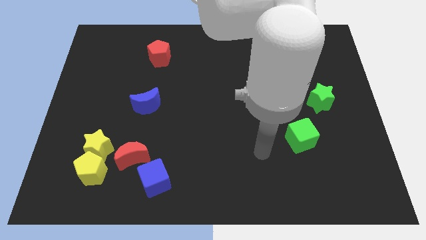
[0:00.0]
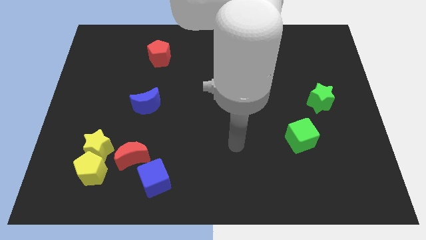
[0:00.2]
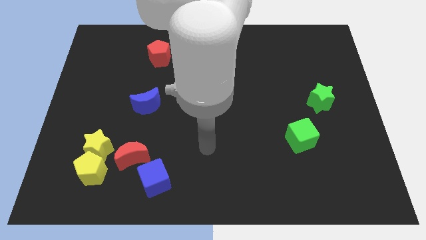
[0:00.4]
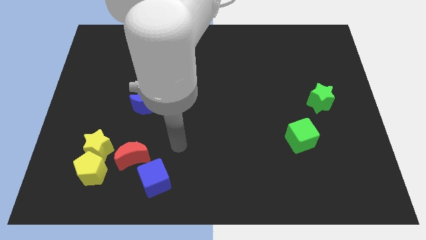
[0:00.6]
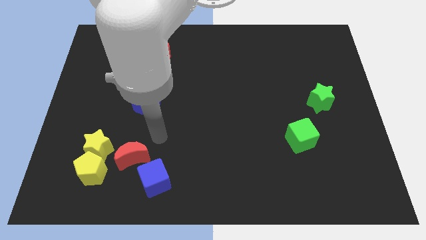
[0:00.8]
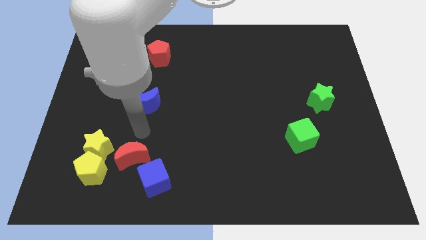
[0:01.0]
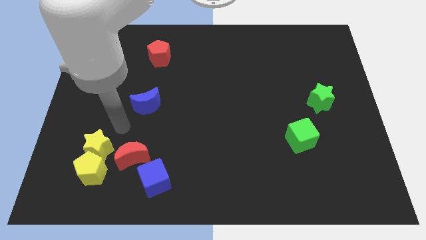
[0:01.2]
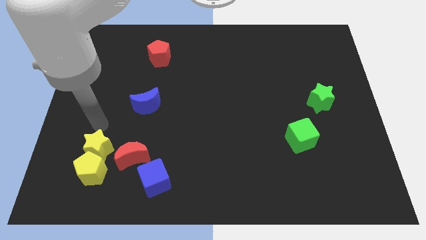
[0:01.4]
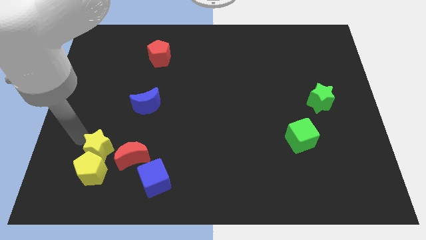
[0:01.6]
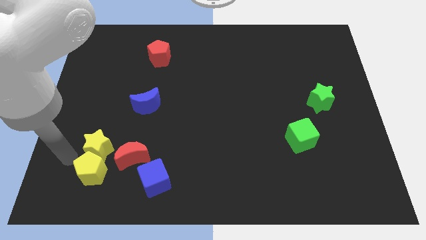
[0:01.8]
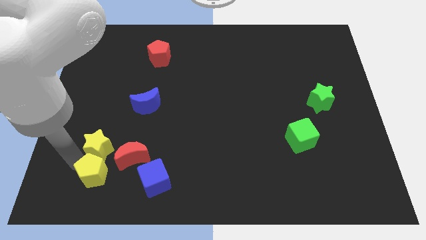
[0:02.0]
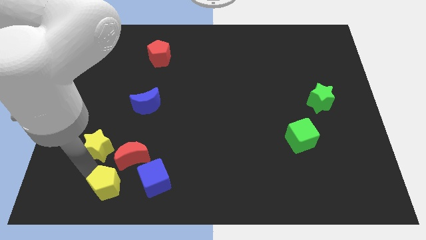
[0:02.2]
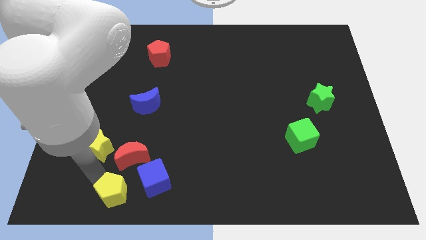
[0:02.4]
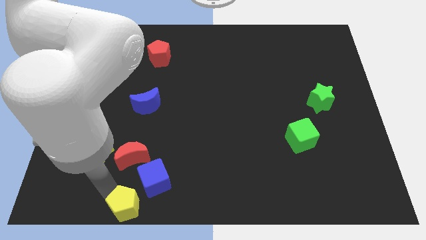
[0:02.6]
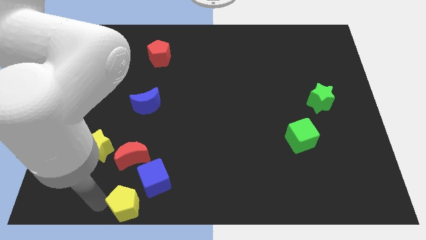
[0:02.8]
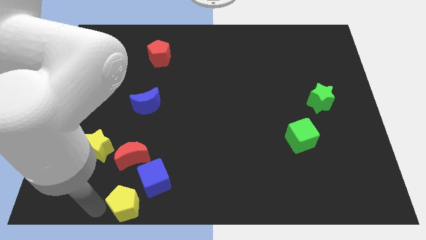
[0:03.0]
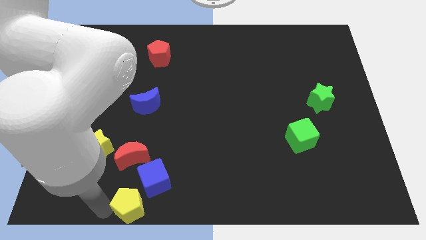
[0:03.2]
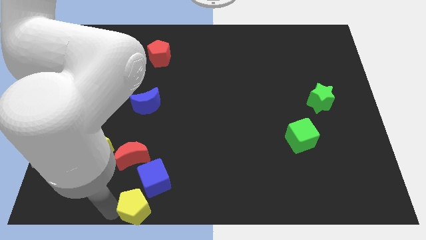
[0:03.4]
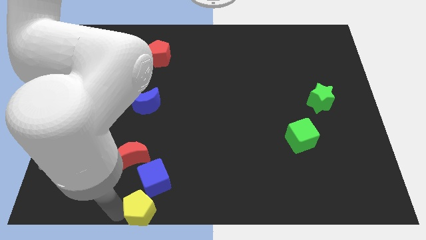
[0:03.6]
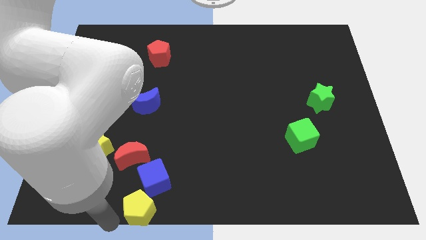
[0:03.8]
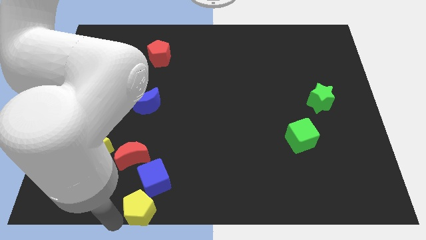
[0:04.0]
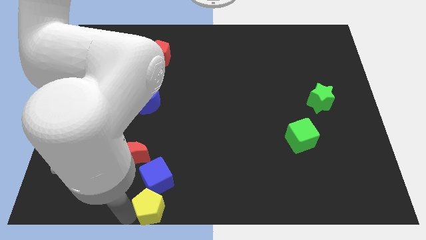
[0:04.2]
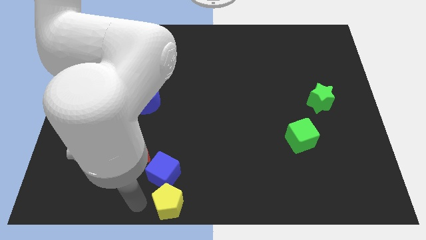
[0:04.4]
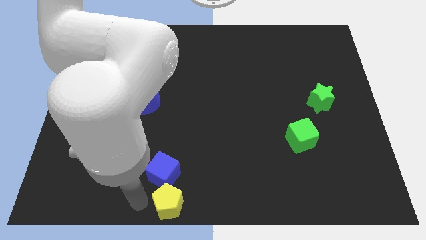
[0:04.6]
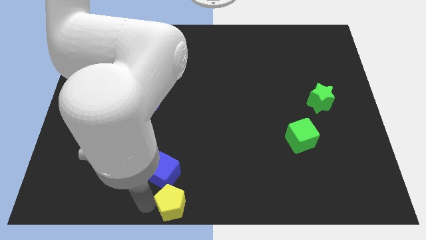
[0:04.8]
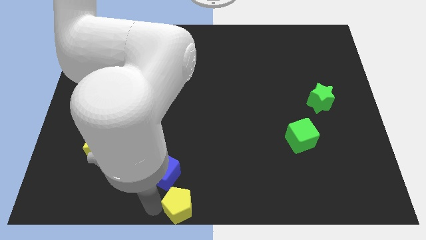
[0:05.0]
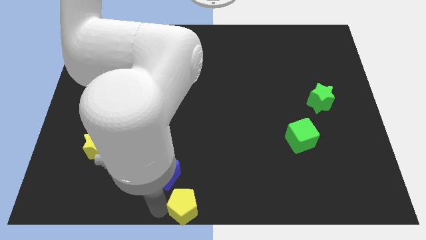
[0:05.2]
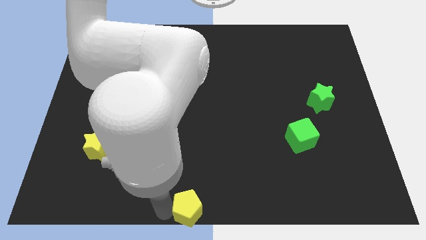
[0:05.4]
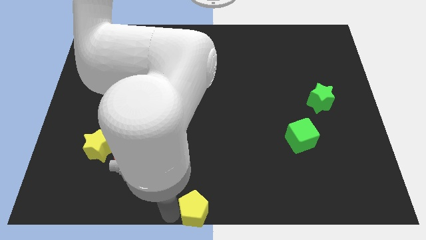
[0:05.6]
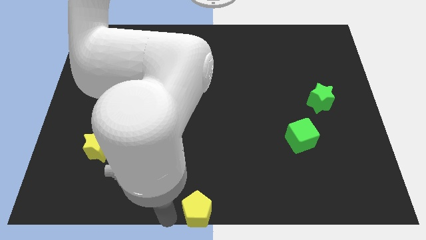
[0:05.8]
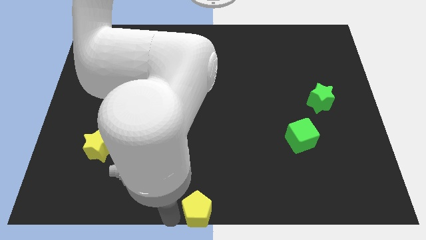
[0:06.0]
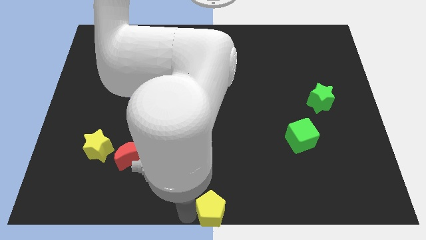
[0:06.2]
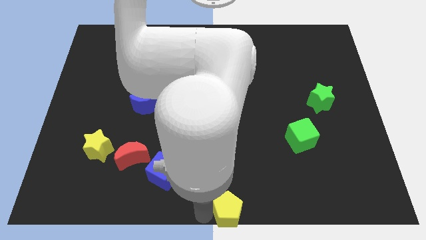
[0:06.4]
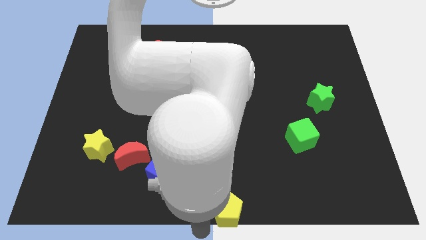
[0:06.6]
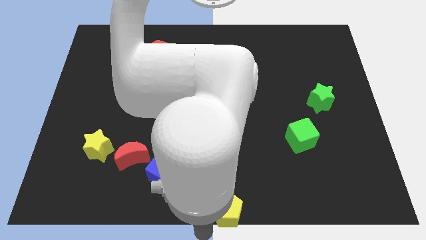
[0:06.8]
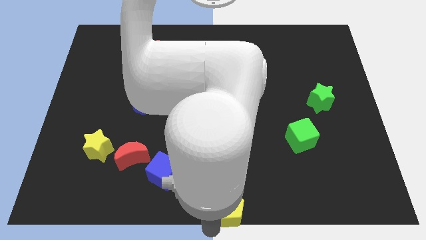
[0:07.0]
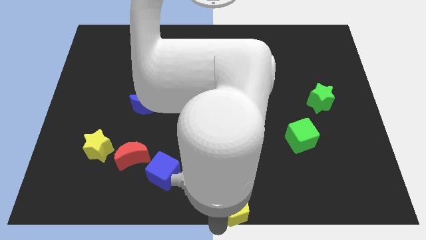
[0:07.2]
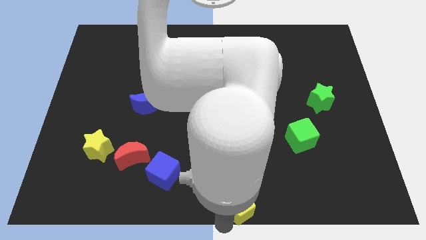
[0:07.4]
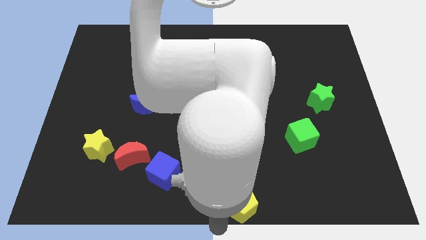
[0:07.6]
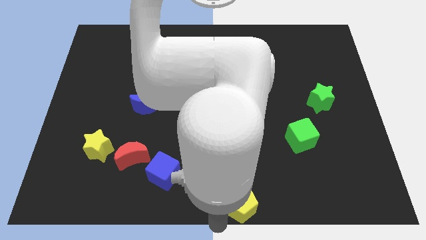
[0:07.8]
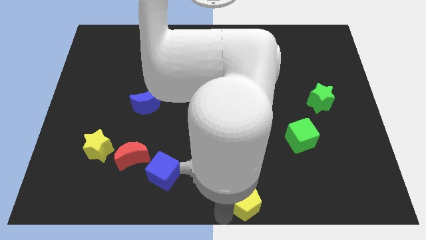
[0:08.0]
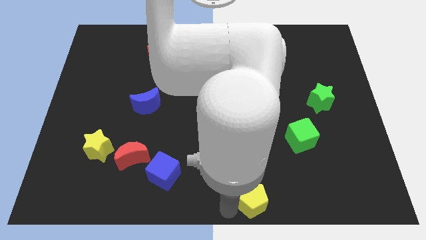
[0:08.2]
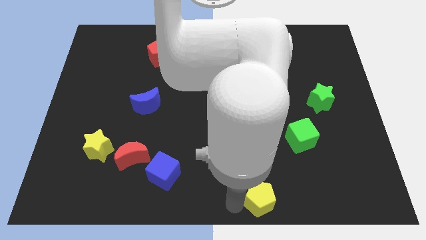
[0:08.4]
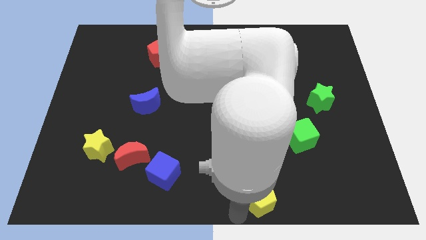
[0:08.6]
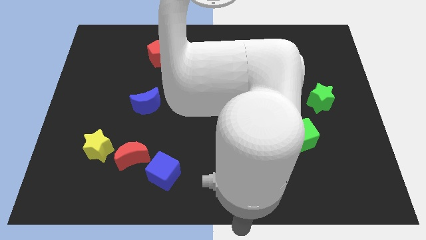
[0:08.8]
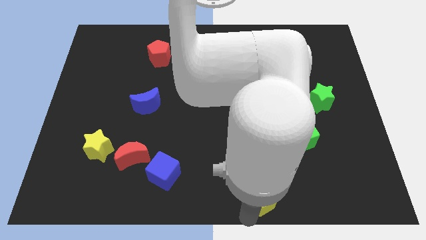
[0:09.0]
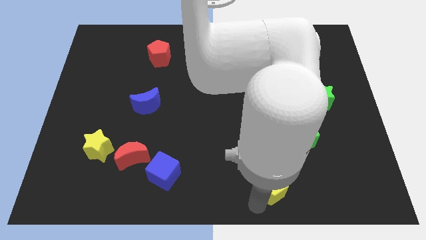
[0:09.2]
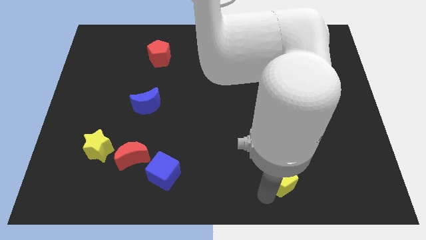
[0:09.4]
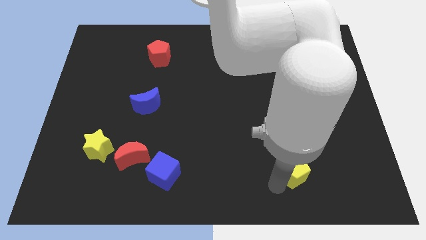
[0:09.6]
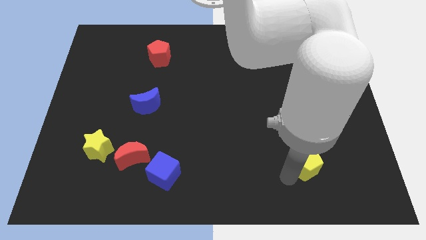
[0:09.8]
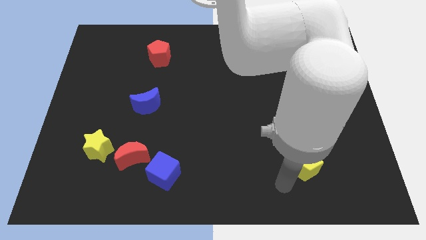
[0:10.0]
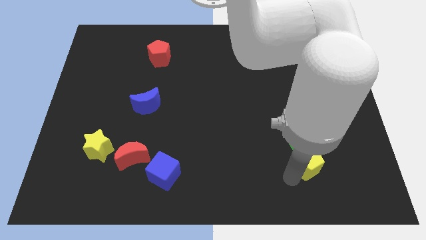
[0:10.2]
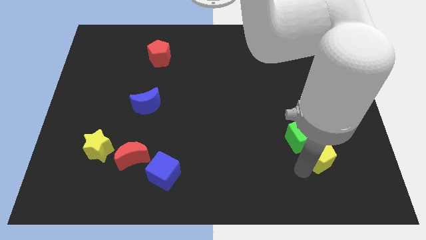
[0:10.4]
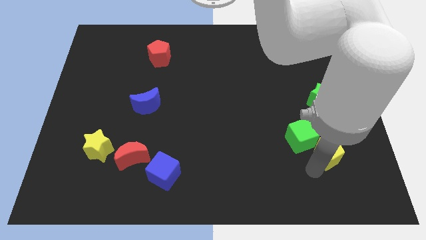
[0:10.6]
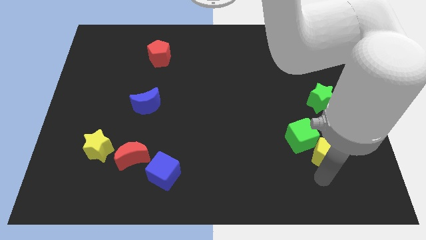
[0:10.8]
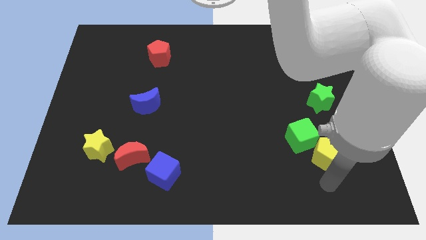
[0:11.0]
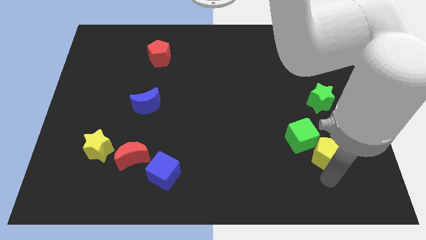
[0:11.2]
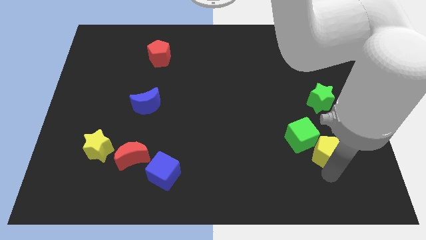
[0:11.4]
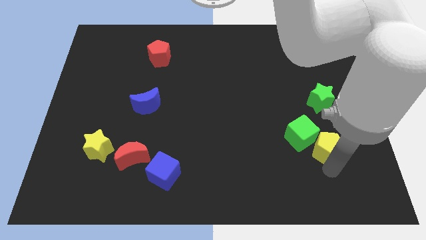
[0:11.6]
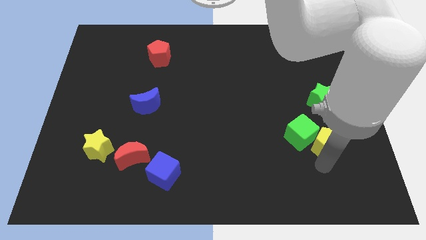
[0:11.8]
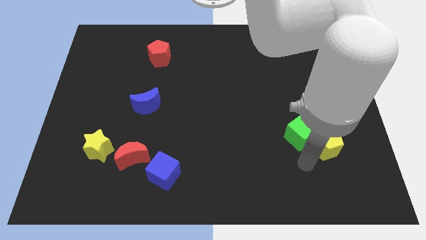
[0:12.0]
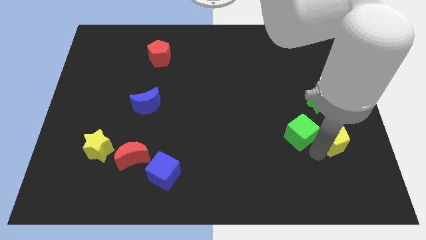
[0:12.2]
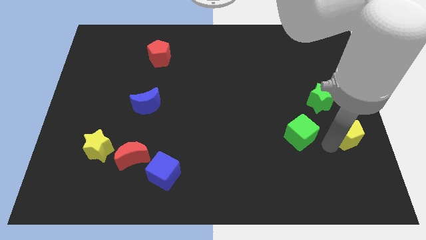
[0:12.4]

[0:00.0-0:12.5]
push the yellow pentagon to the center right

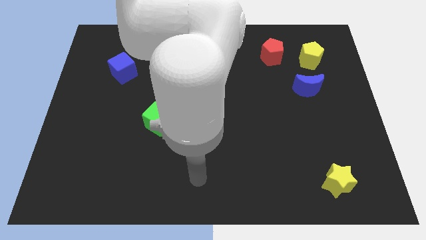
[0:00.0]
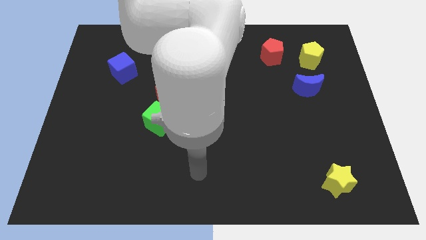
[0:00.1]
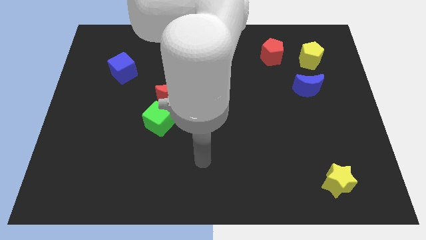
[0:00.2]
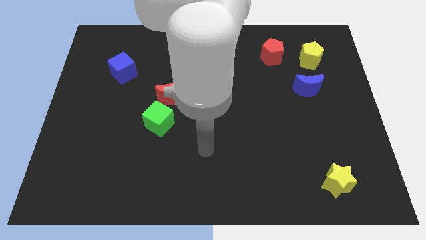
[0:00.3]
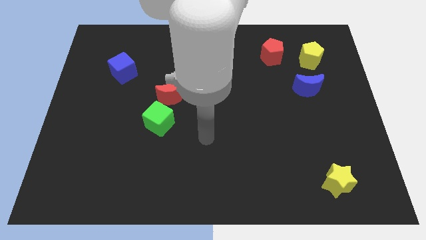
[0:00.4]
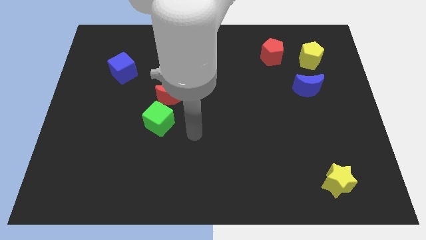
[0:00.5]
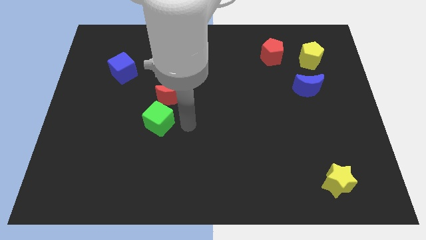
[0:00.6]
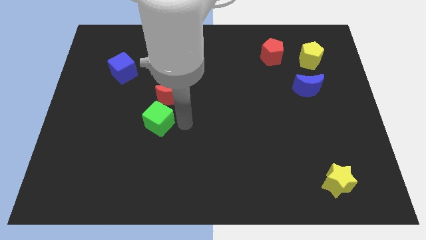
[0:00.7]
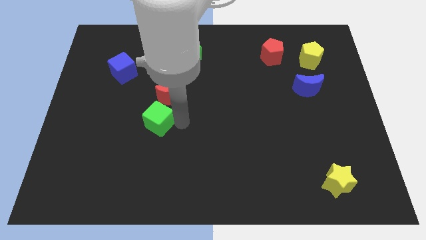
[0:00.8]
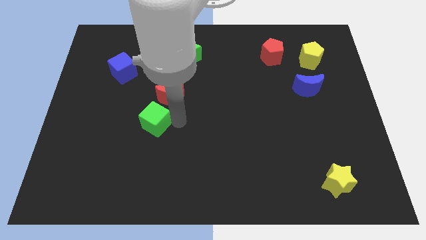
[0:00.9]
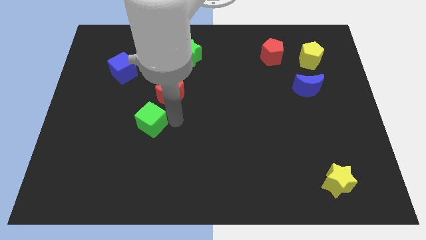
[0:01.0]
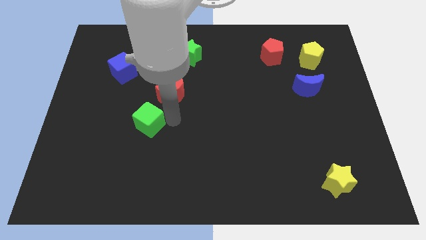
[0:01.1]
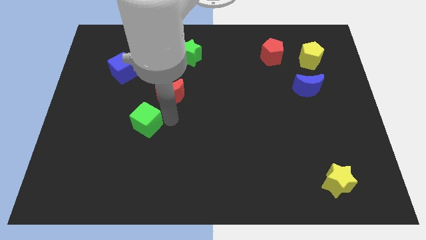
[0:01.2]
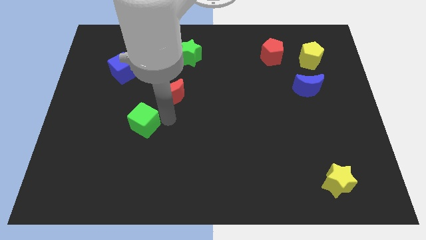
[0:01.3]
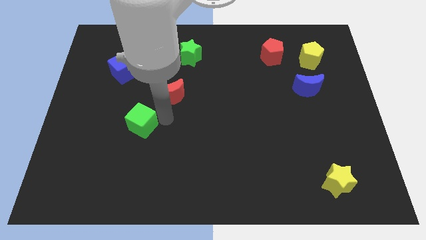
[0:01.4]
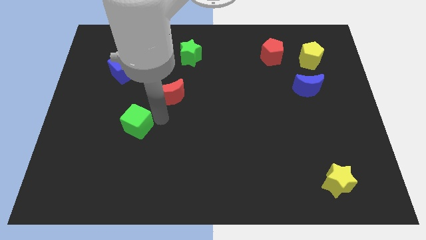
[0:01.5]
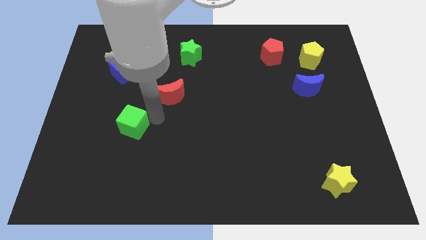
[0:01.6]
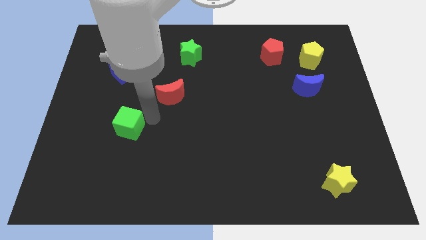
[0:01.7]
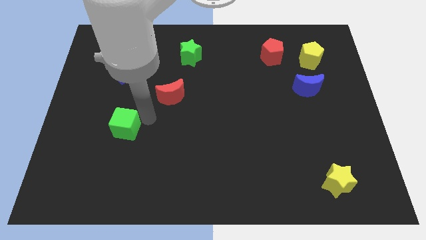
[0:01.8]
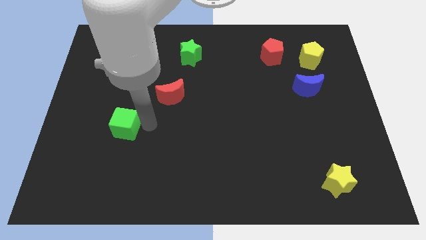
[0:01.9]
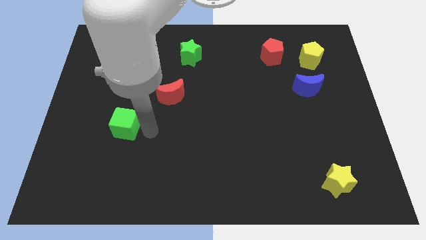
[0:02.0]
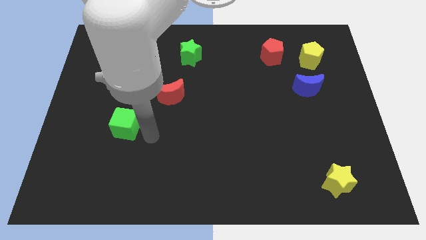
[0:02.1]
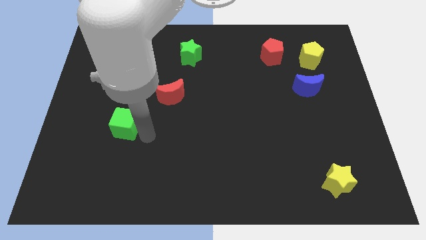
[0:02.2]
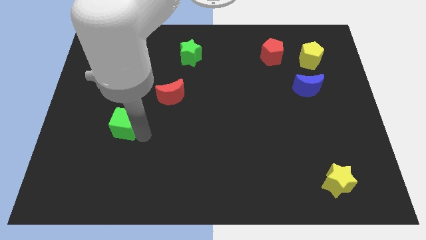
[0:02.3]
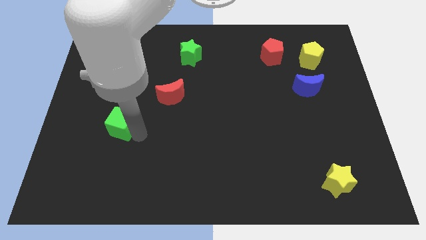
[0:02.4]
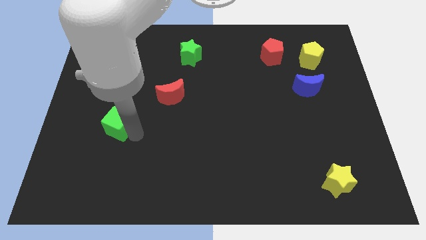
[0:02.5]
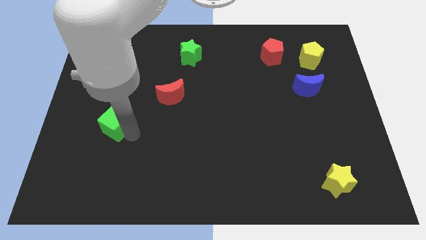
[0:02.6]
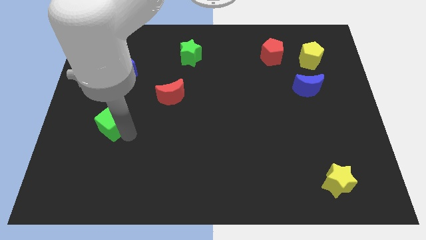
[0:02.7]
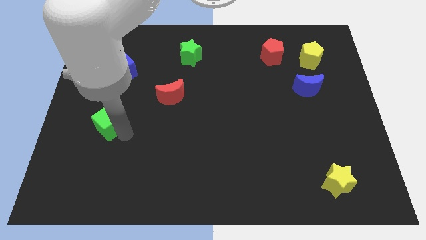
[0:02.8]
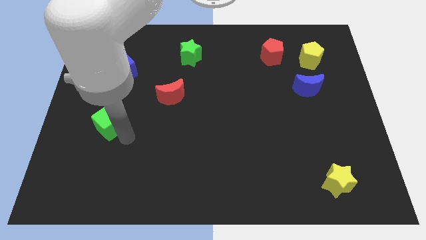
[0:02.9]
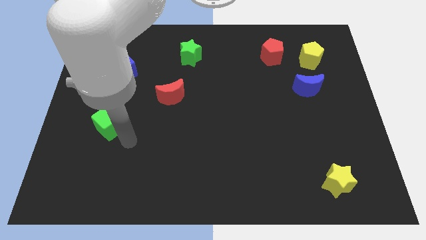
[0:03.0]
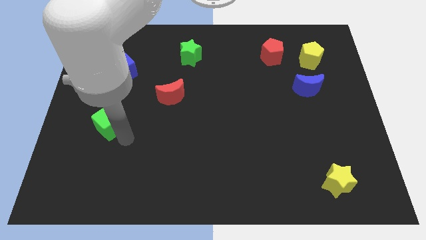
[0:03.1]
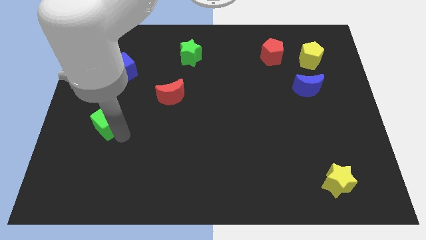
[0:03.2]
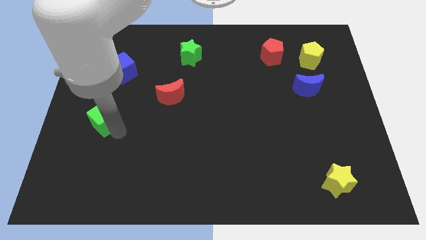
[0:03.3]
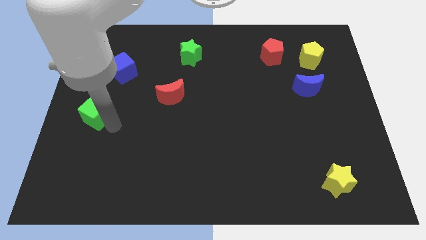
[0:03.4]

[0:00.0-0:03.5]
put the green cube to the center left
